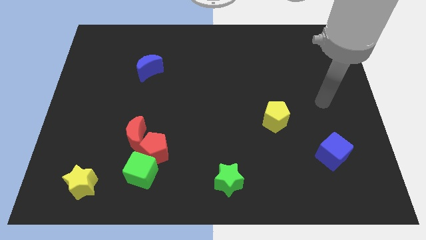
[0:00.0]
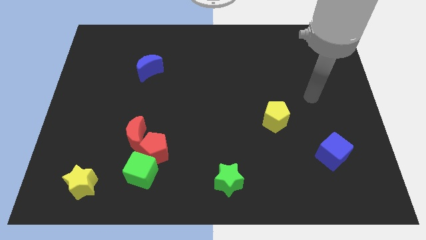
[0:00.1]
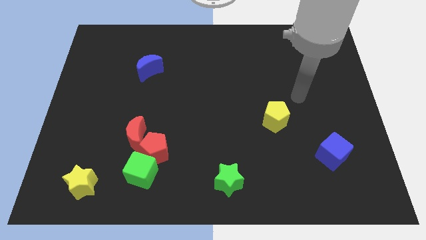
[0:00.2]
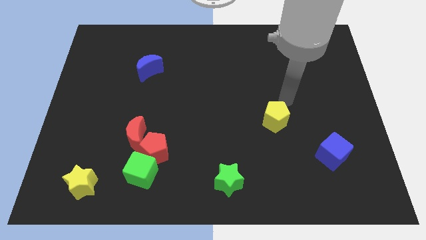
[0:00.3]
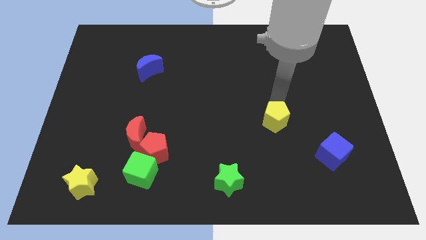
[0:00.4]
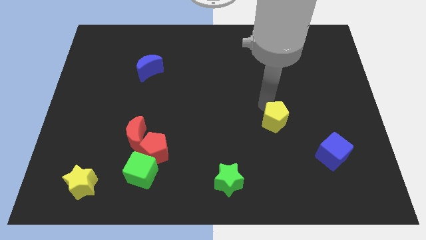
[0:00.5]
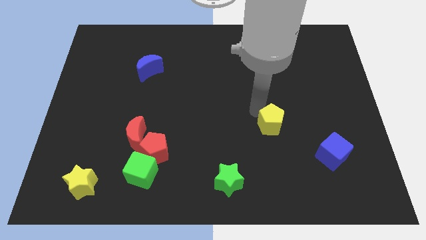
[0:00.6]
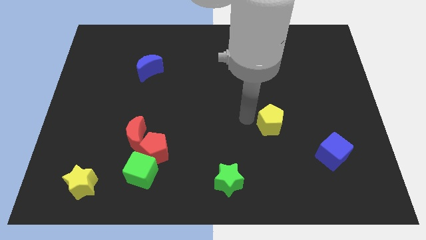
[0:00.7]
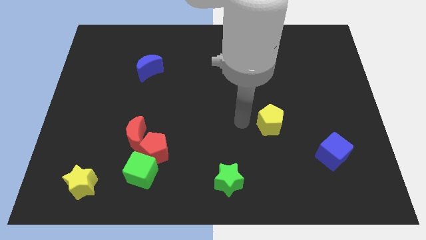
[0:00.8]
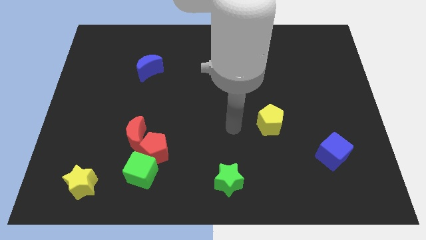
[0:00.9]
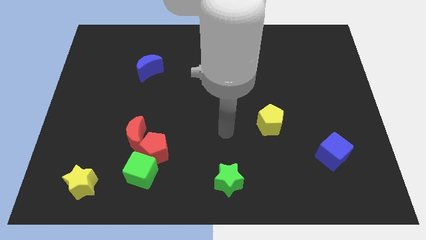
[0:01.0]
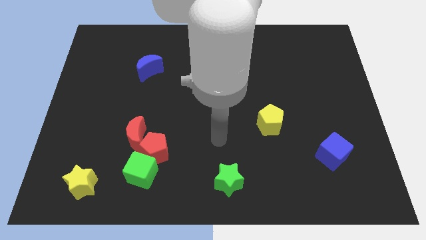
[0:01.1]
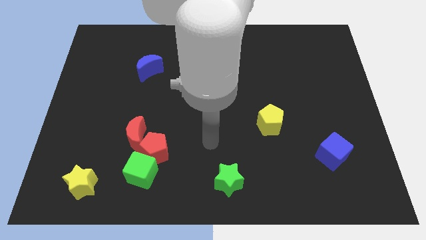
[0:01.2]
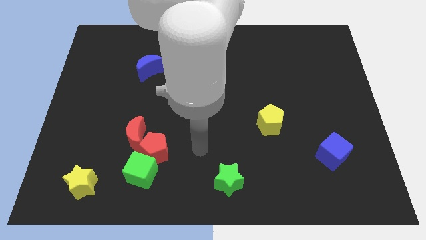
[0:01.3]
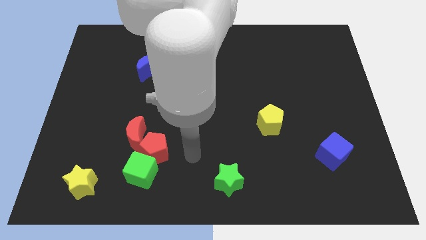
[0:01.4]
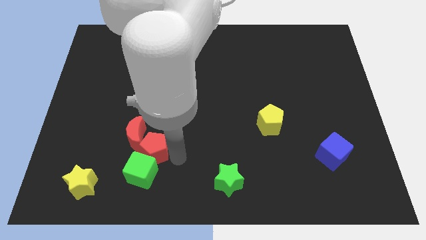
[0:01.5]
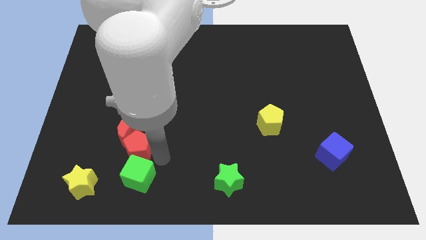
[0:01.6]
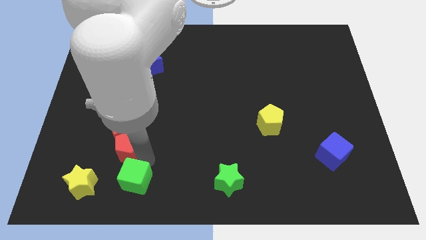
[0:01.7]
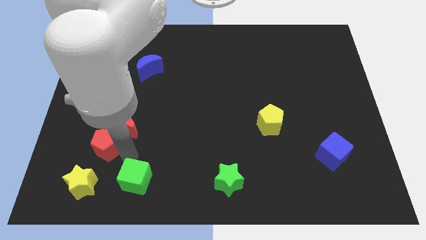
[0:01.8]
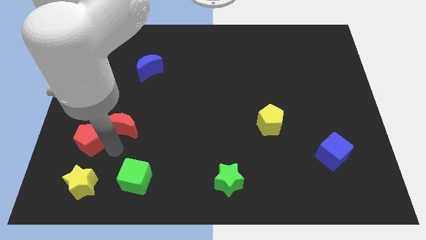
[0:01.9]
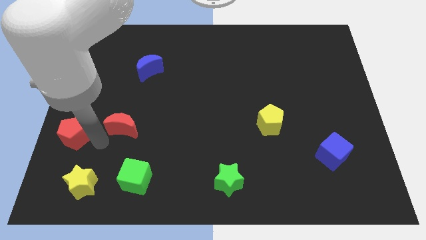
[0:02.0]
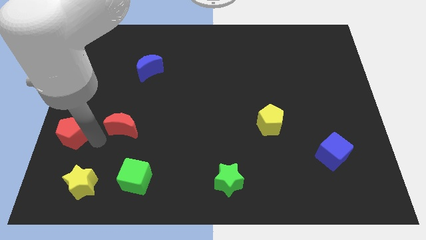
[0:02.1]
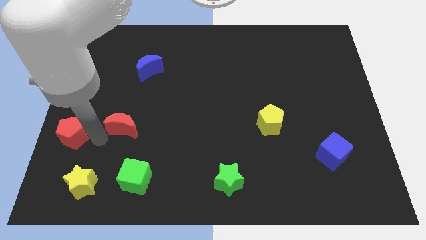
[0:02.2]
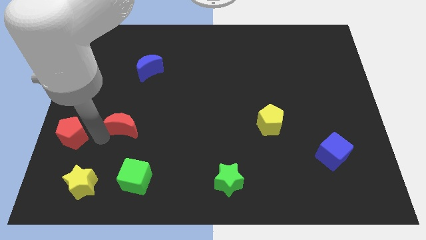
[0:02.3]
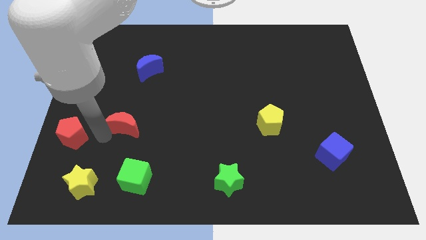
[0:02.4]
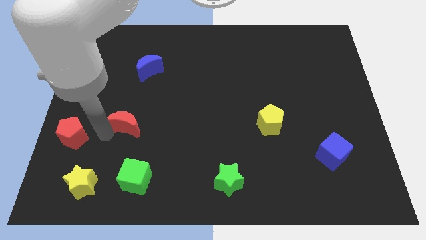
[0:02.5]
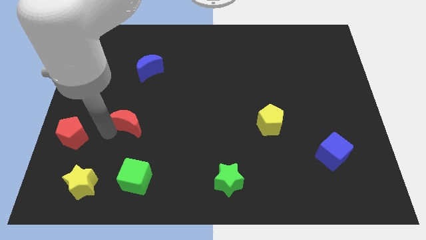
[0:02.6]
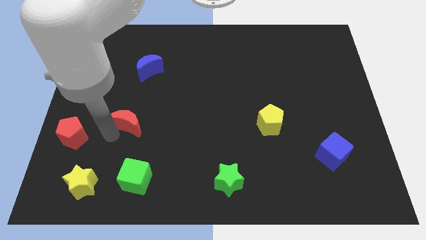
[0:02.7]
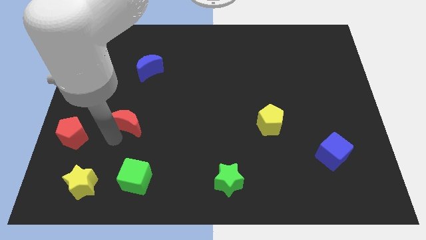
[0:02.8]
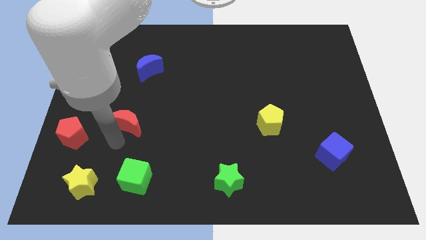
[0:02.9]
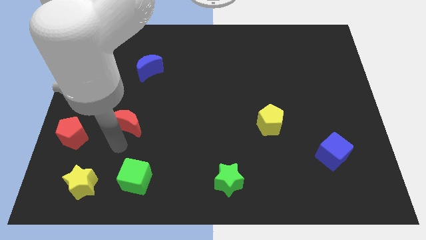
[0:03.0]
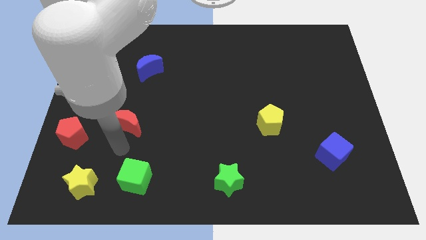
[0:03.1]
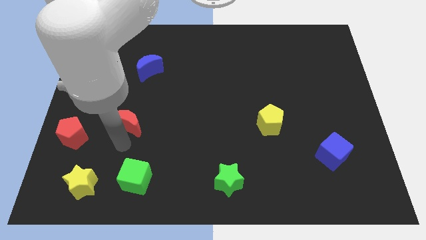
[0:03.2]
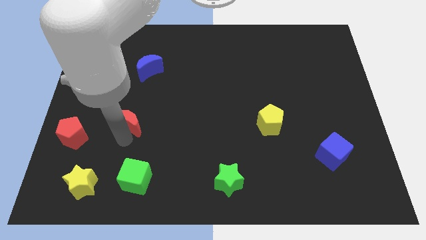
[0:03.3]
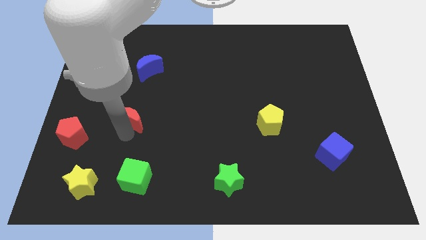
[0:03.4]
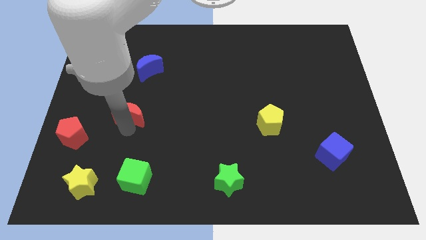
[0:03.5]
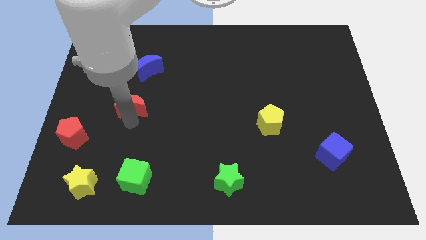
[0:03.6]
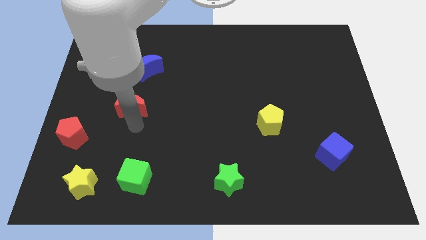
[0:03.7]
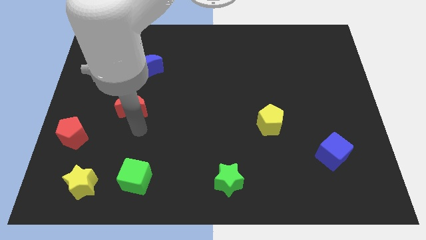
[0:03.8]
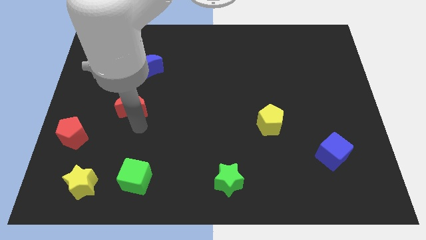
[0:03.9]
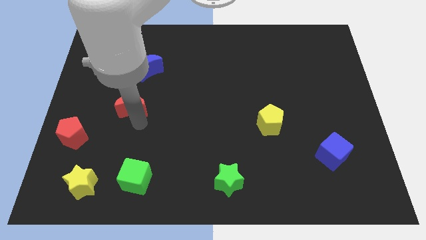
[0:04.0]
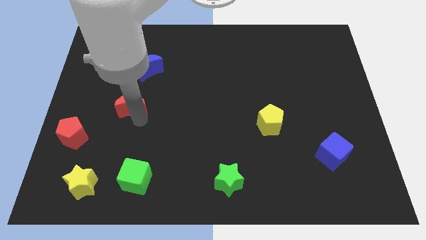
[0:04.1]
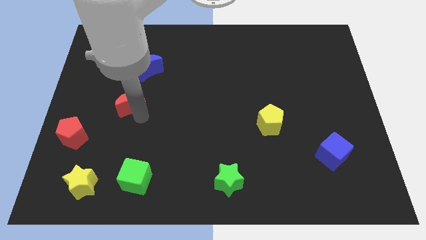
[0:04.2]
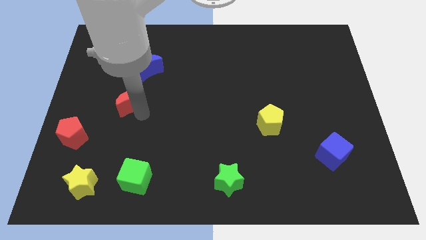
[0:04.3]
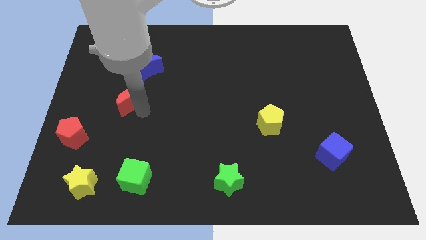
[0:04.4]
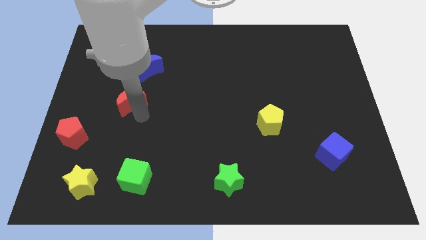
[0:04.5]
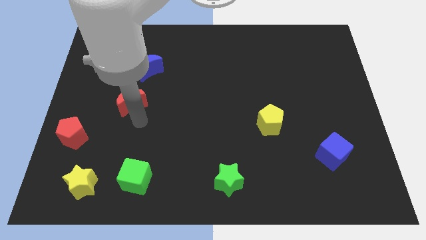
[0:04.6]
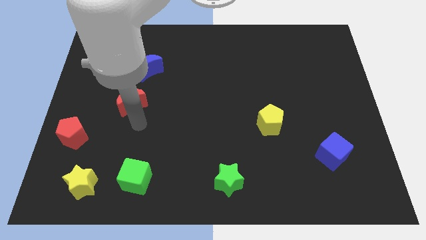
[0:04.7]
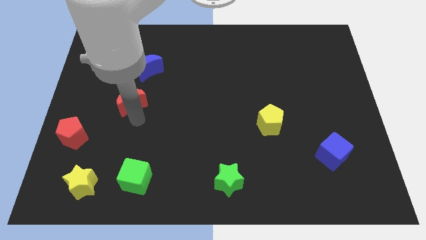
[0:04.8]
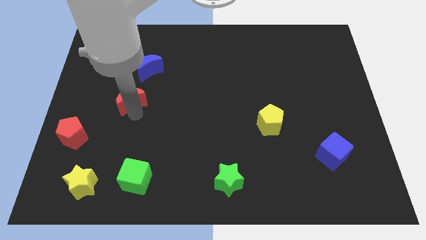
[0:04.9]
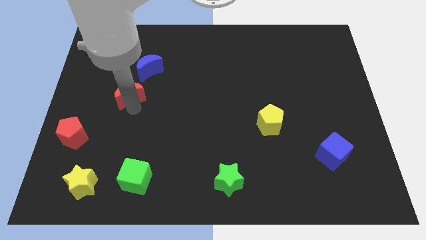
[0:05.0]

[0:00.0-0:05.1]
push the red moon to the bottom left side of the blue moon

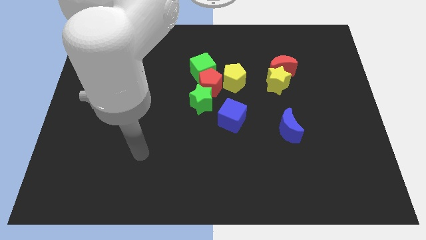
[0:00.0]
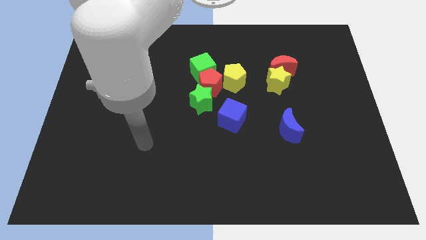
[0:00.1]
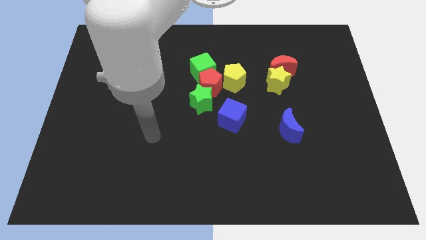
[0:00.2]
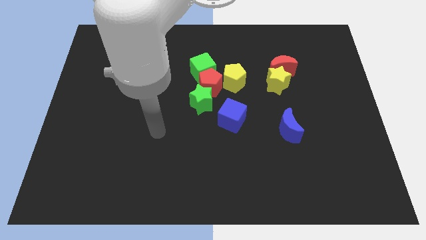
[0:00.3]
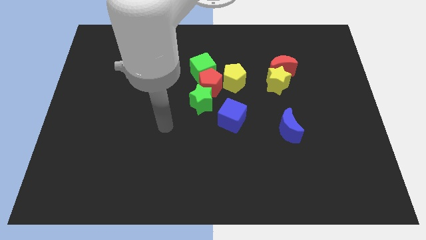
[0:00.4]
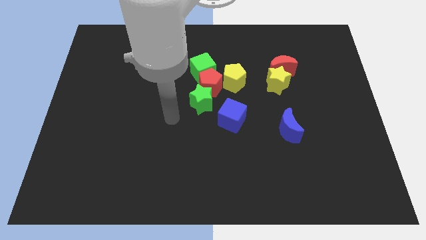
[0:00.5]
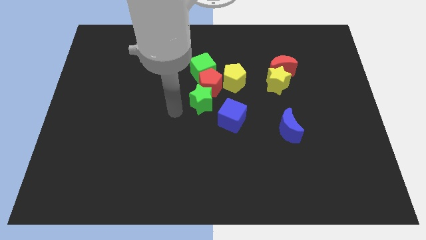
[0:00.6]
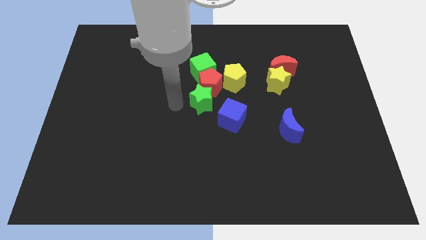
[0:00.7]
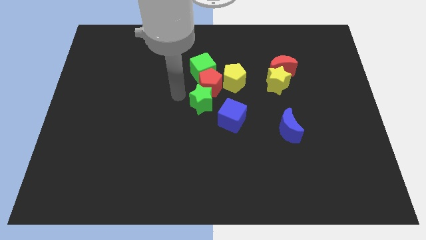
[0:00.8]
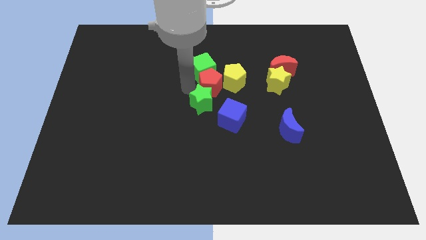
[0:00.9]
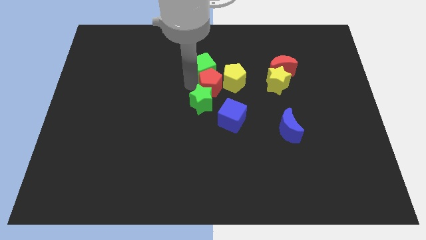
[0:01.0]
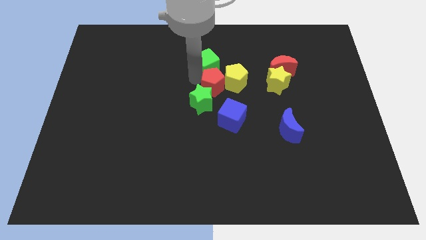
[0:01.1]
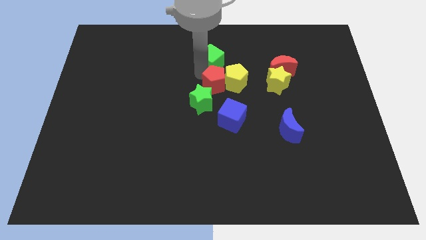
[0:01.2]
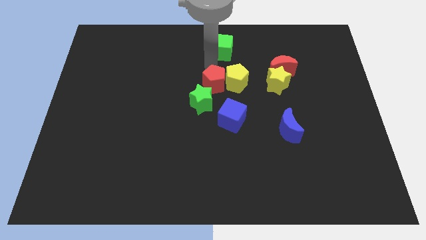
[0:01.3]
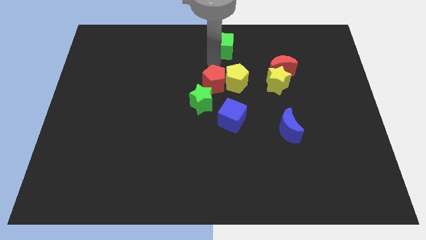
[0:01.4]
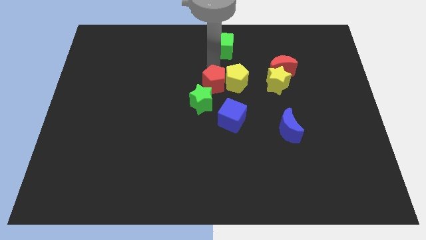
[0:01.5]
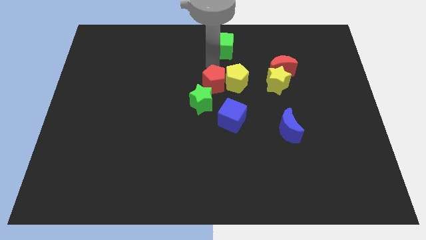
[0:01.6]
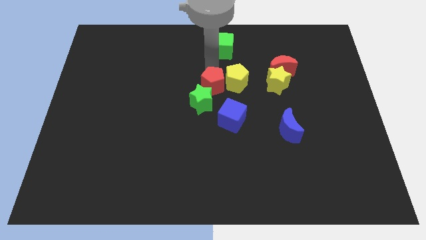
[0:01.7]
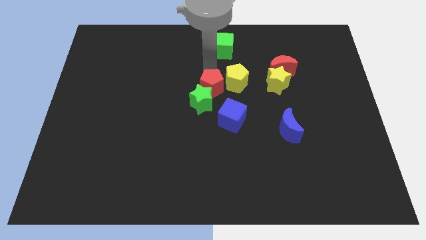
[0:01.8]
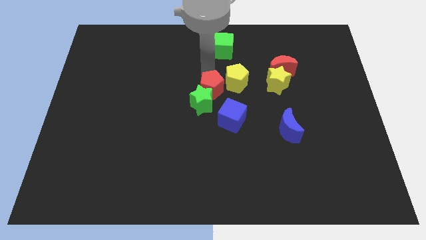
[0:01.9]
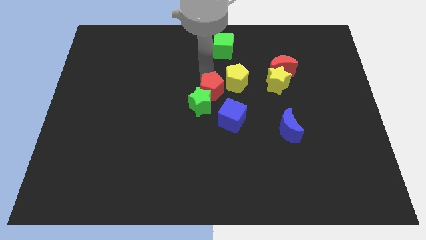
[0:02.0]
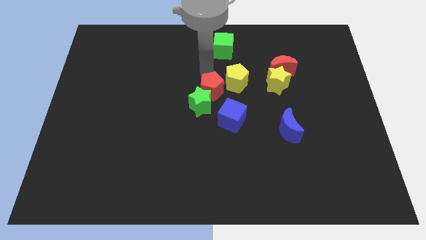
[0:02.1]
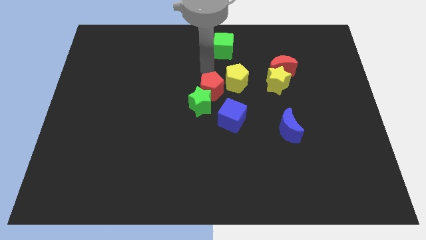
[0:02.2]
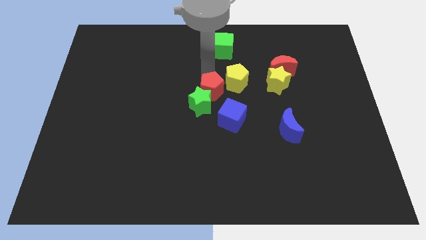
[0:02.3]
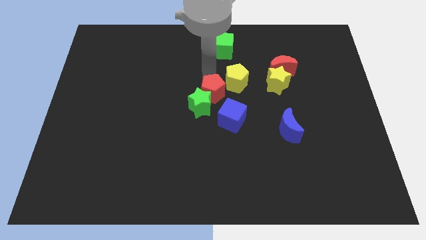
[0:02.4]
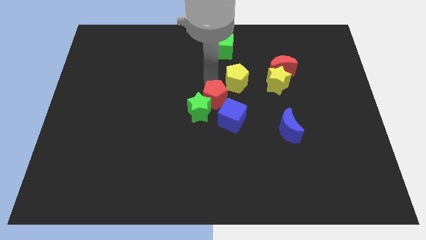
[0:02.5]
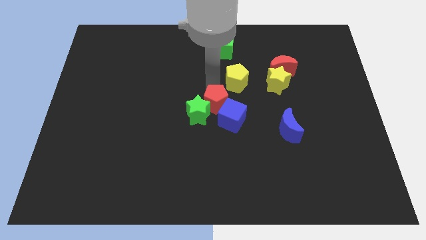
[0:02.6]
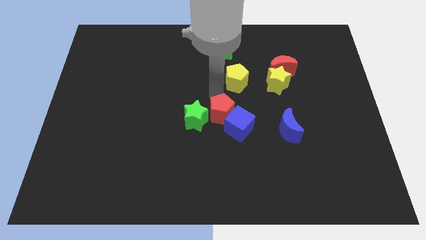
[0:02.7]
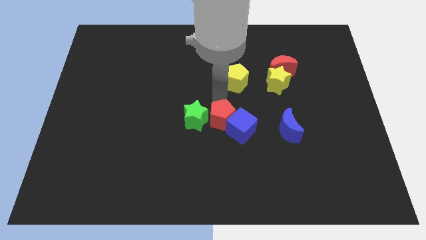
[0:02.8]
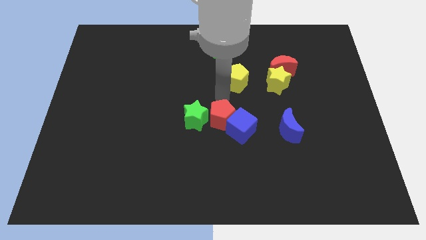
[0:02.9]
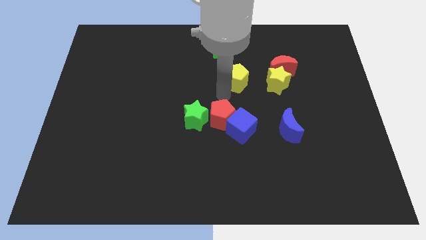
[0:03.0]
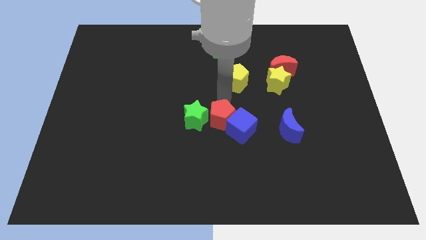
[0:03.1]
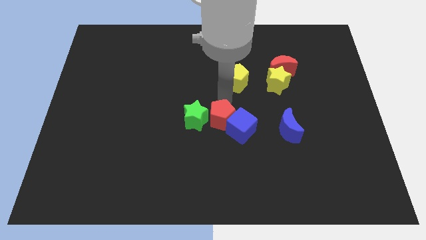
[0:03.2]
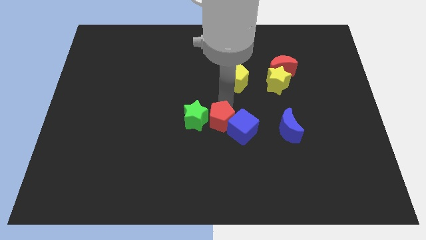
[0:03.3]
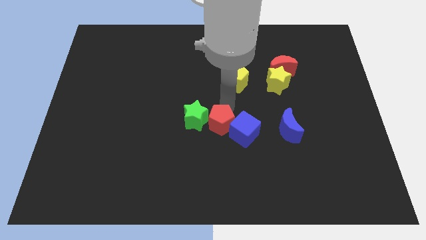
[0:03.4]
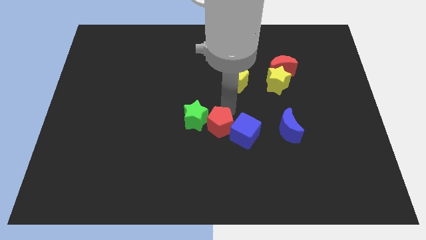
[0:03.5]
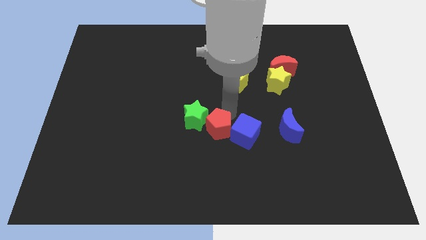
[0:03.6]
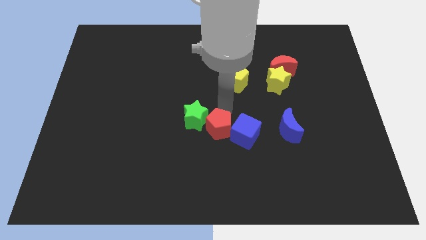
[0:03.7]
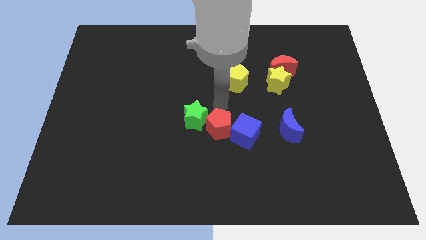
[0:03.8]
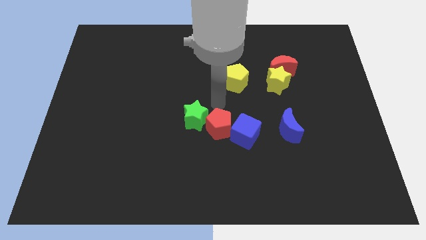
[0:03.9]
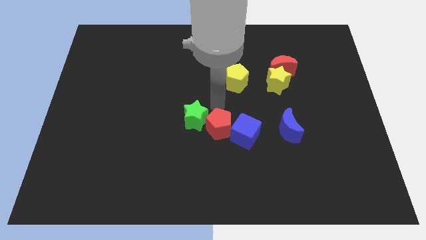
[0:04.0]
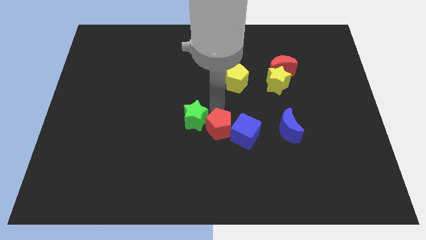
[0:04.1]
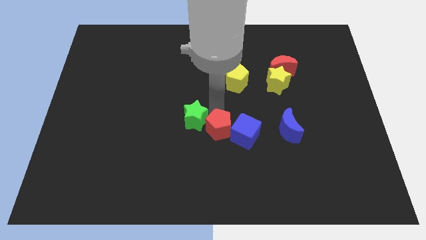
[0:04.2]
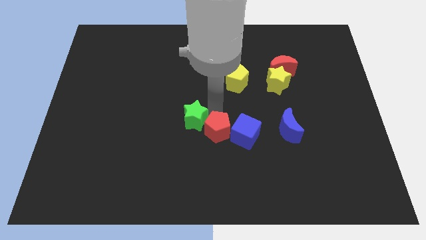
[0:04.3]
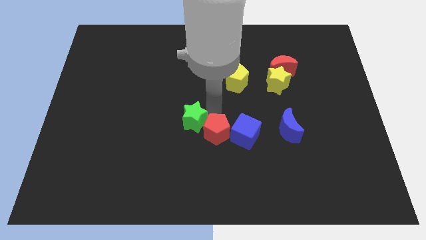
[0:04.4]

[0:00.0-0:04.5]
push the red pentagon to the bottom left of the blue cube
